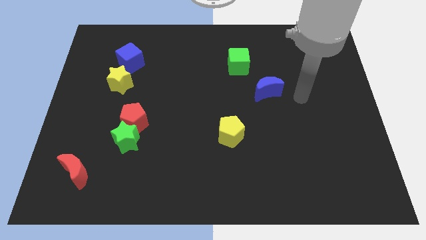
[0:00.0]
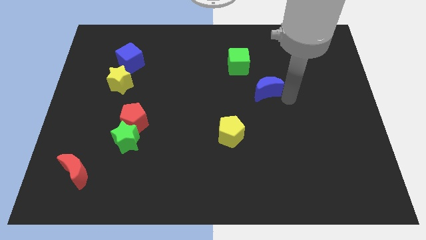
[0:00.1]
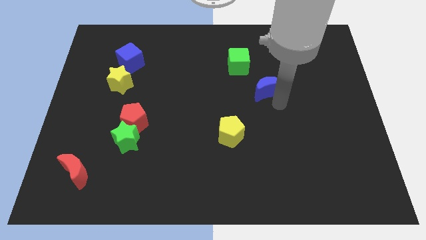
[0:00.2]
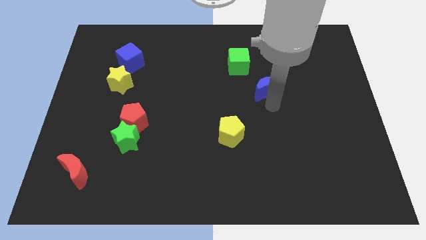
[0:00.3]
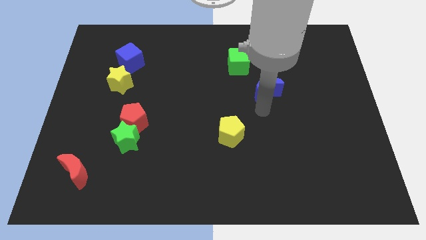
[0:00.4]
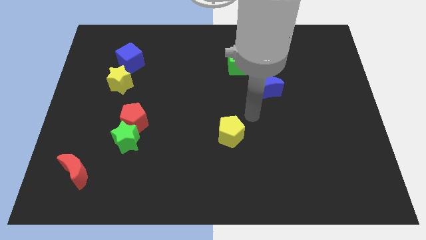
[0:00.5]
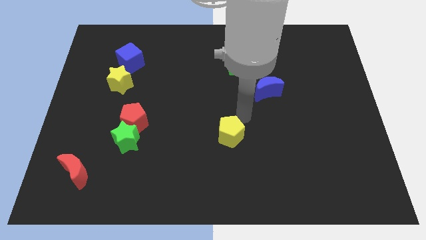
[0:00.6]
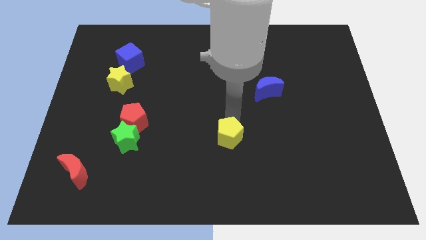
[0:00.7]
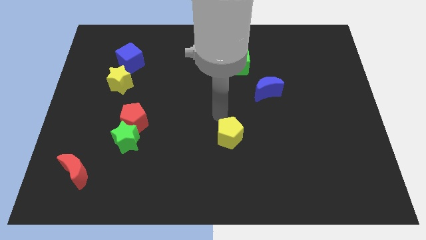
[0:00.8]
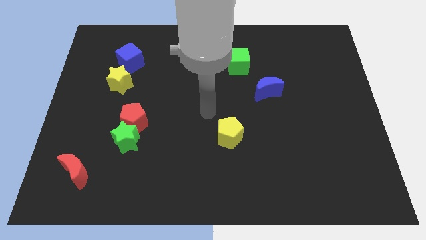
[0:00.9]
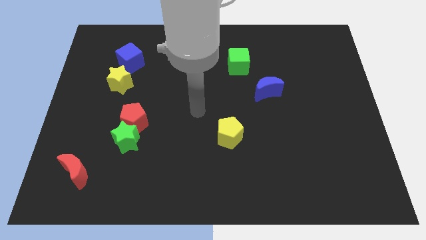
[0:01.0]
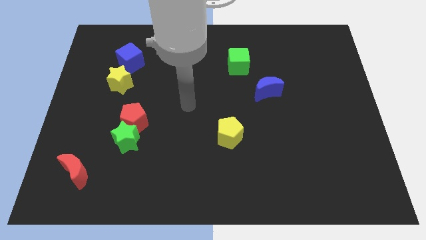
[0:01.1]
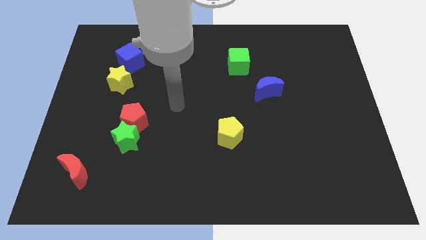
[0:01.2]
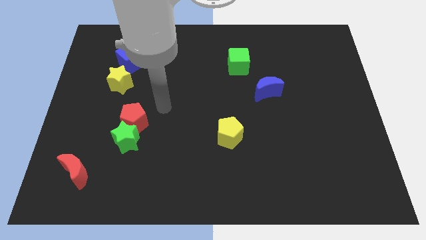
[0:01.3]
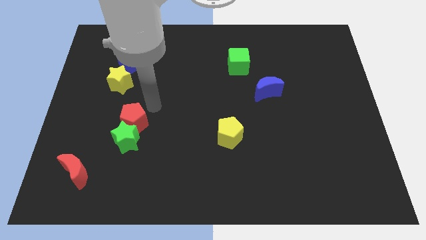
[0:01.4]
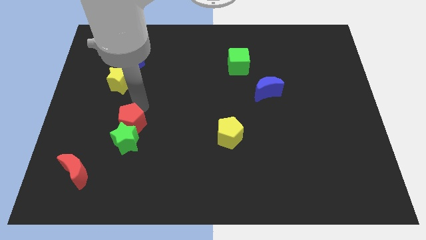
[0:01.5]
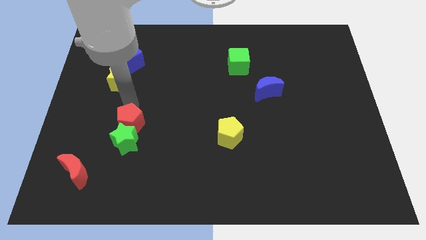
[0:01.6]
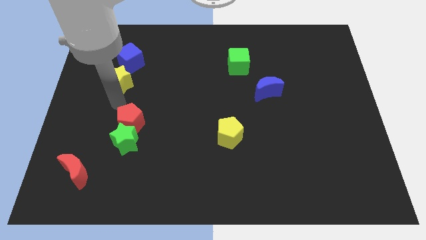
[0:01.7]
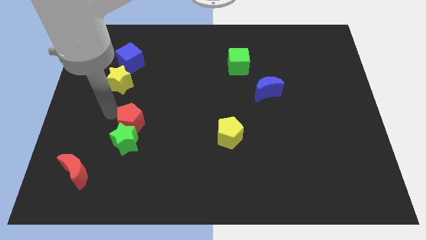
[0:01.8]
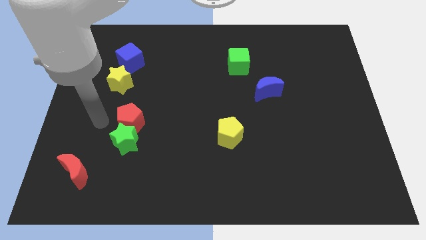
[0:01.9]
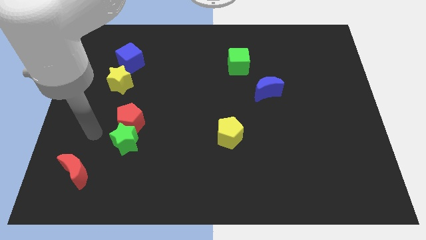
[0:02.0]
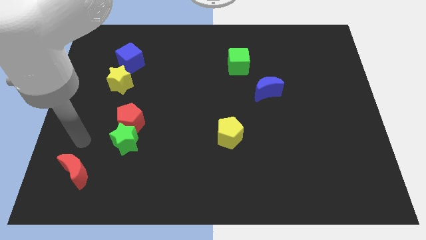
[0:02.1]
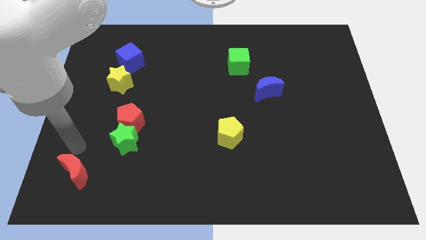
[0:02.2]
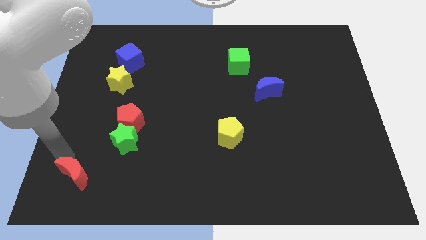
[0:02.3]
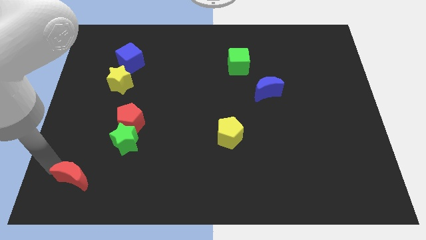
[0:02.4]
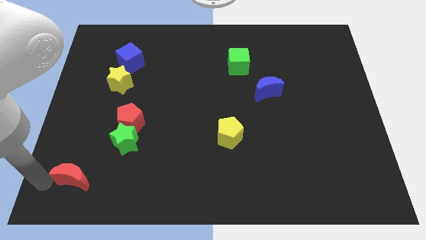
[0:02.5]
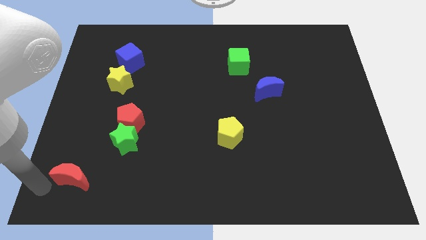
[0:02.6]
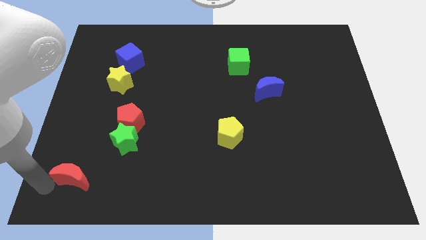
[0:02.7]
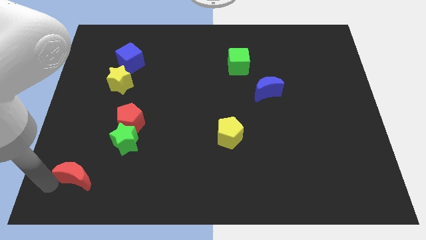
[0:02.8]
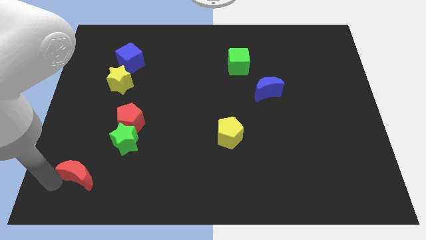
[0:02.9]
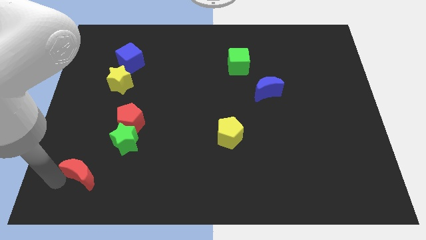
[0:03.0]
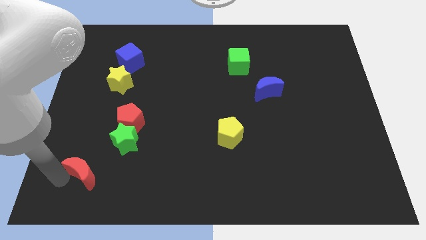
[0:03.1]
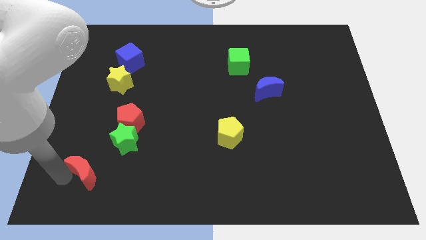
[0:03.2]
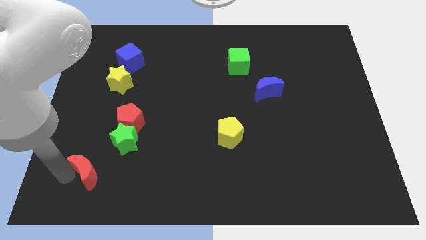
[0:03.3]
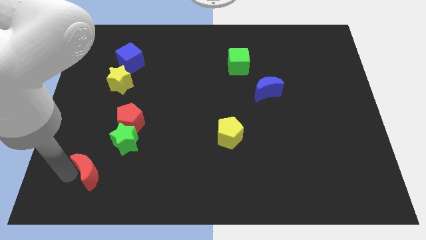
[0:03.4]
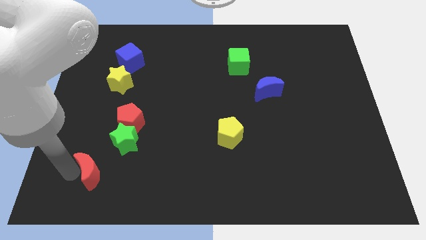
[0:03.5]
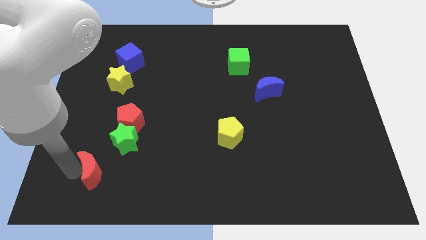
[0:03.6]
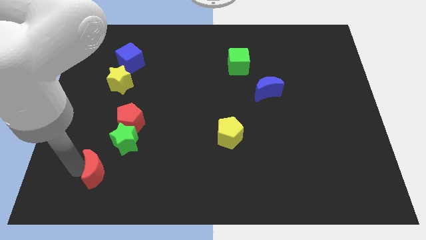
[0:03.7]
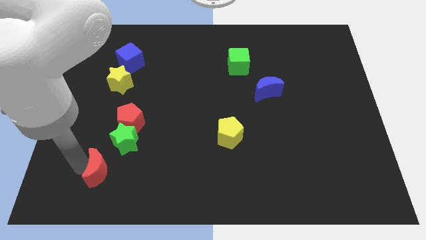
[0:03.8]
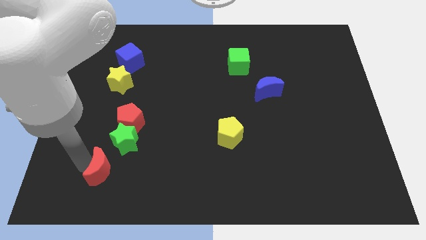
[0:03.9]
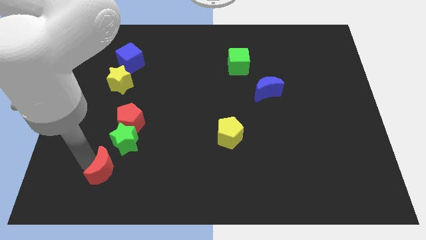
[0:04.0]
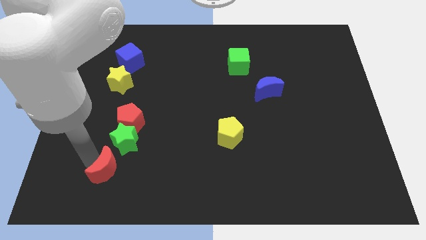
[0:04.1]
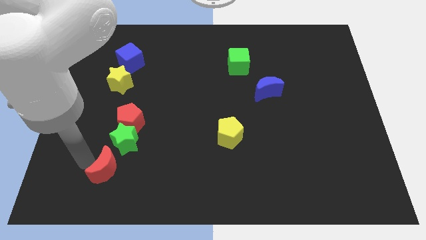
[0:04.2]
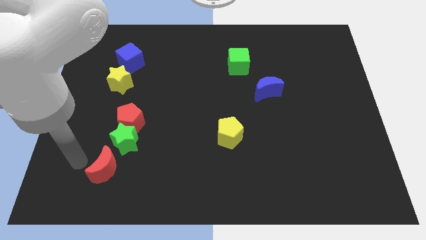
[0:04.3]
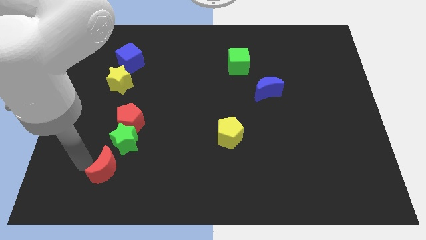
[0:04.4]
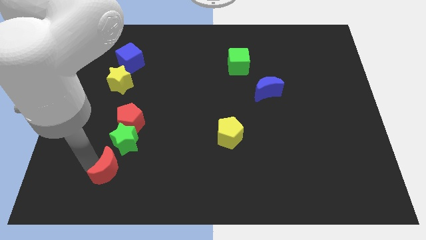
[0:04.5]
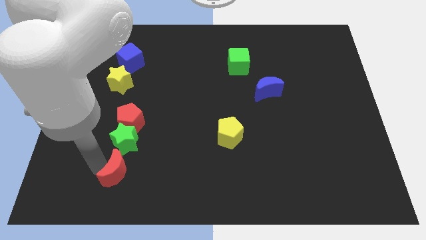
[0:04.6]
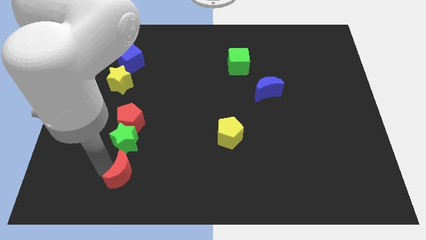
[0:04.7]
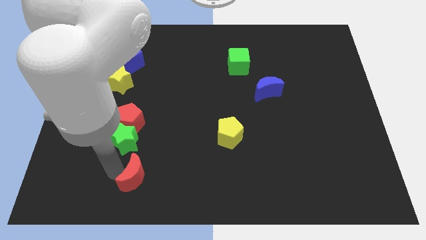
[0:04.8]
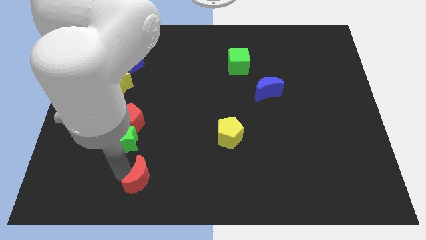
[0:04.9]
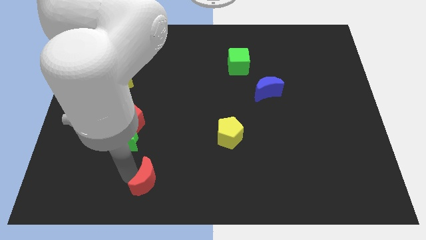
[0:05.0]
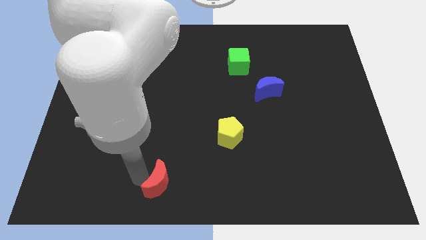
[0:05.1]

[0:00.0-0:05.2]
move the red moon to the bottom

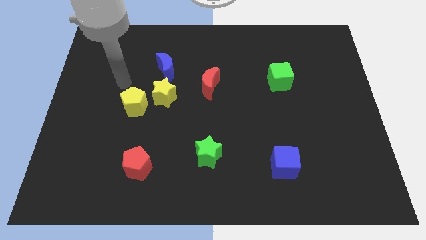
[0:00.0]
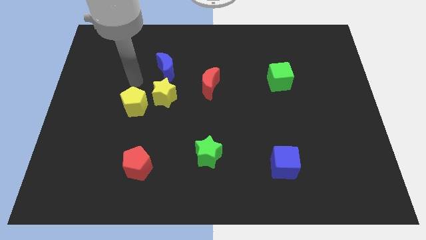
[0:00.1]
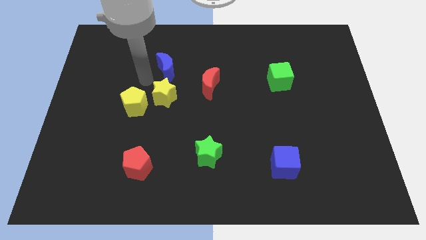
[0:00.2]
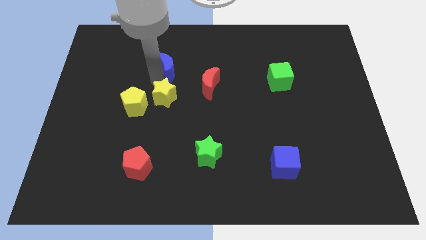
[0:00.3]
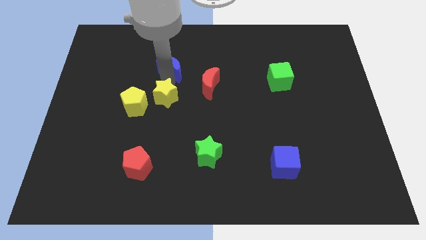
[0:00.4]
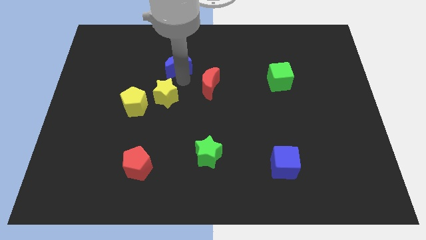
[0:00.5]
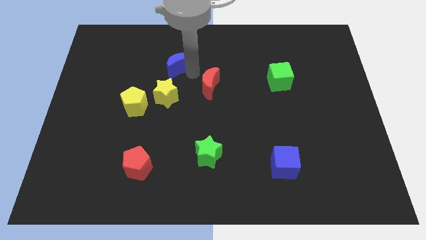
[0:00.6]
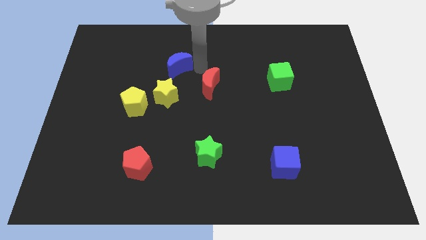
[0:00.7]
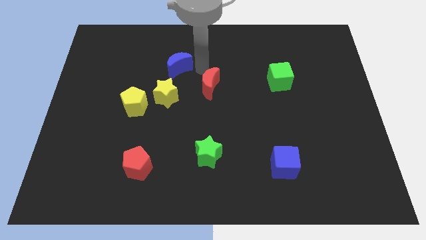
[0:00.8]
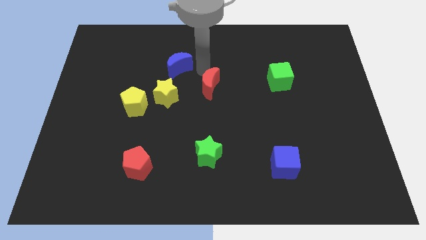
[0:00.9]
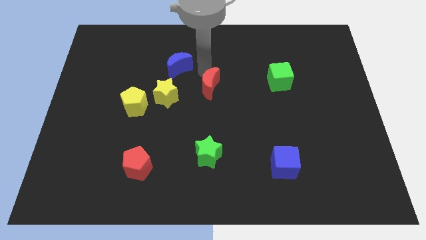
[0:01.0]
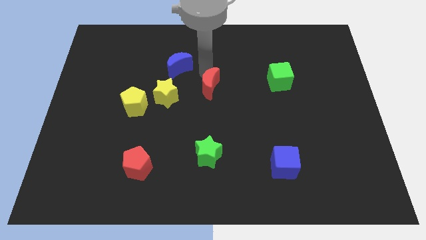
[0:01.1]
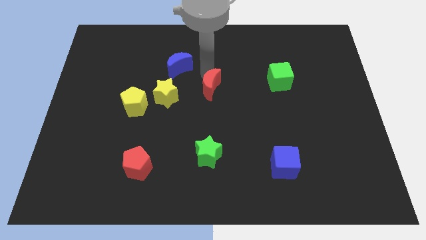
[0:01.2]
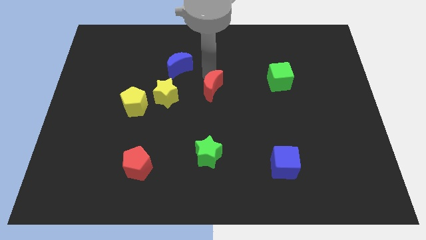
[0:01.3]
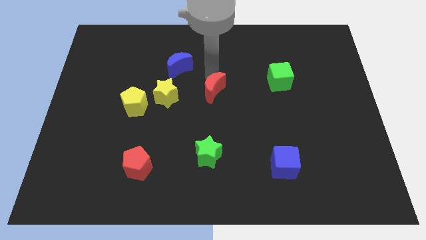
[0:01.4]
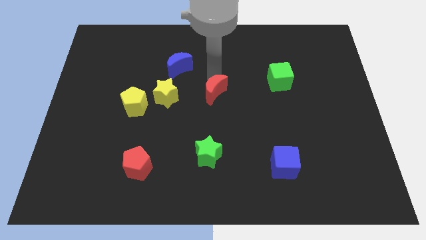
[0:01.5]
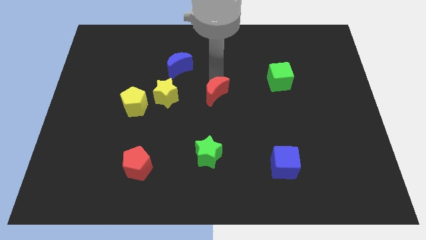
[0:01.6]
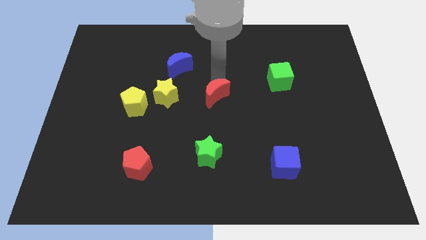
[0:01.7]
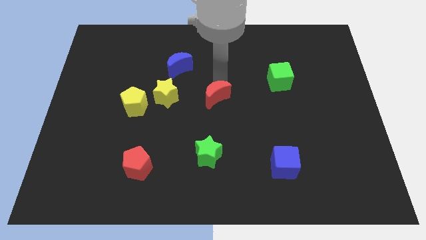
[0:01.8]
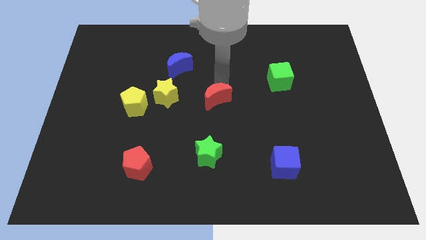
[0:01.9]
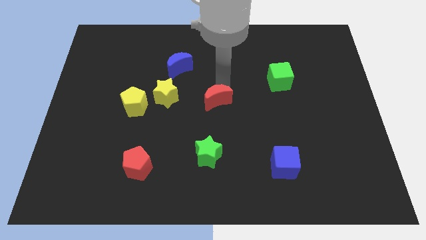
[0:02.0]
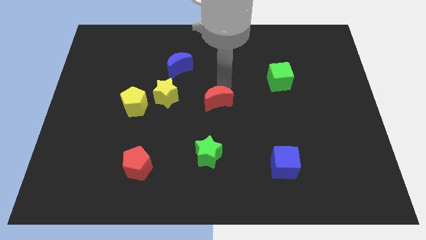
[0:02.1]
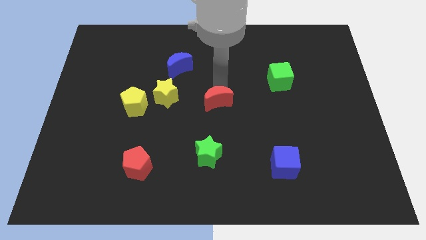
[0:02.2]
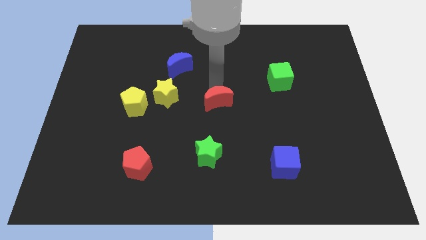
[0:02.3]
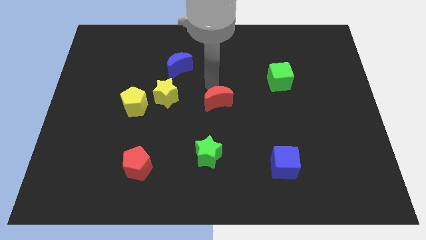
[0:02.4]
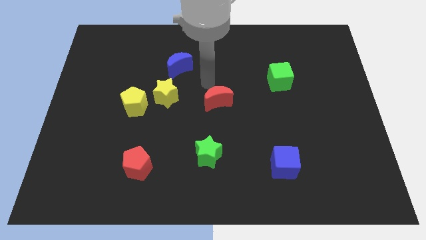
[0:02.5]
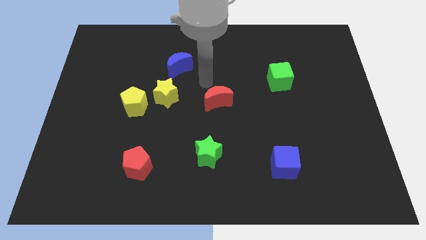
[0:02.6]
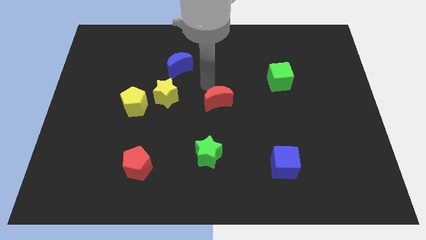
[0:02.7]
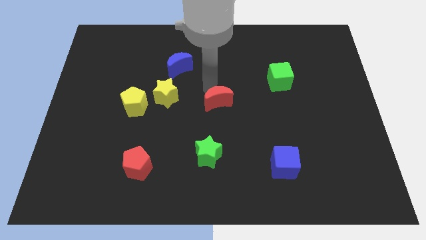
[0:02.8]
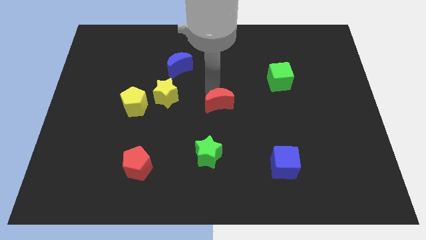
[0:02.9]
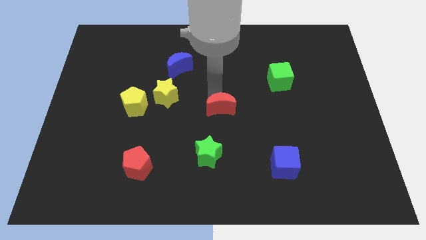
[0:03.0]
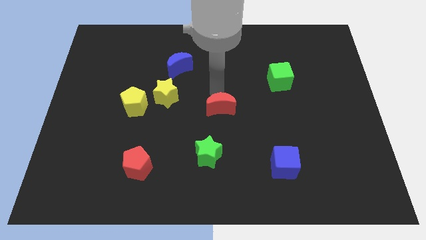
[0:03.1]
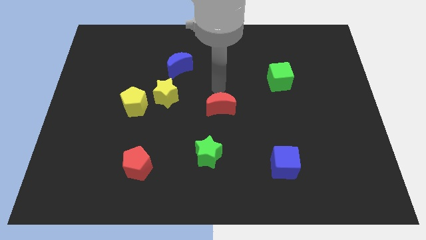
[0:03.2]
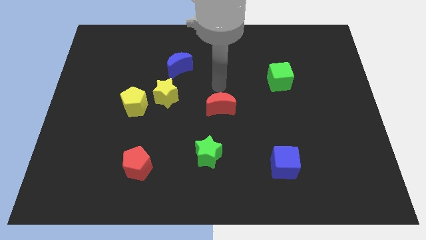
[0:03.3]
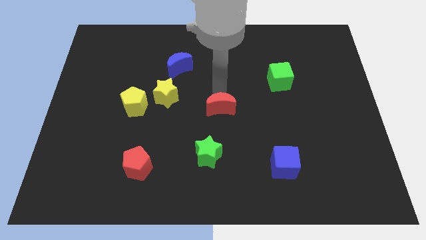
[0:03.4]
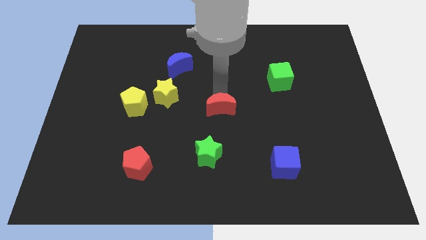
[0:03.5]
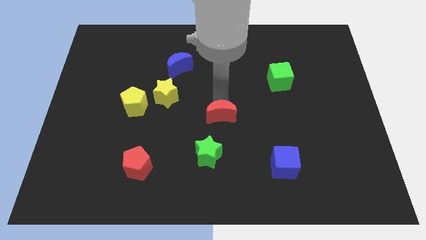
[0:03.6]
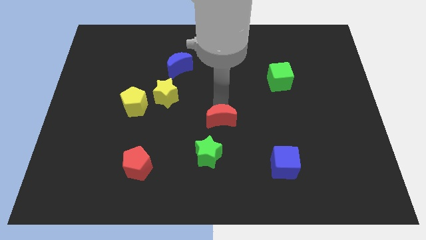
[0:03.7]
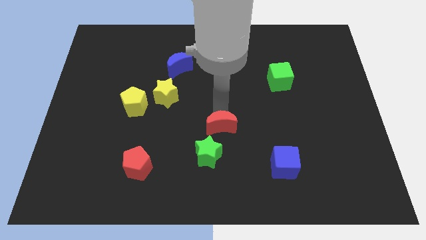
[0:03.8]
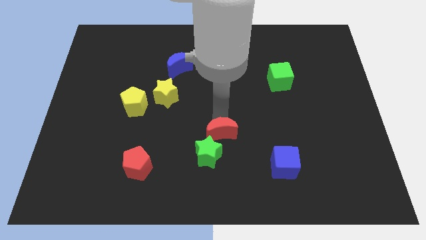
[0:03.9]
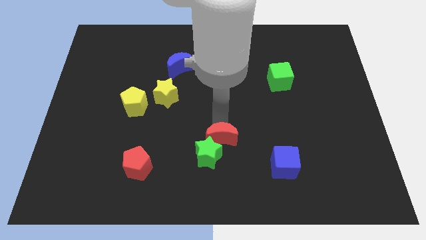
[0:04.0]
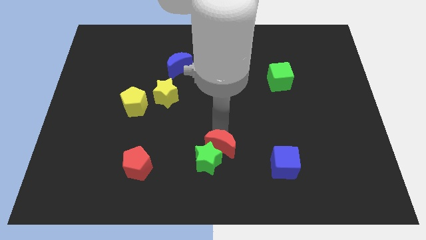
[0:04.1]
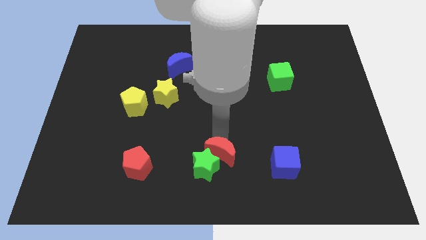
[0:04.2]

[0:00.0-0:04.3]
push the red moon to the bottom side
